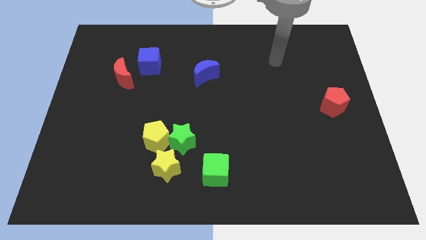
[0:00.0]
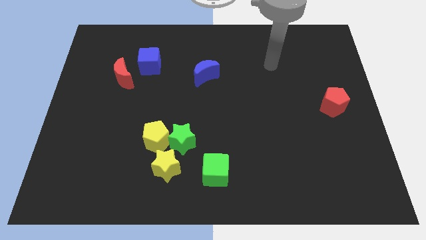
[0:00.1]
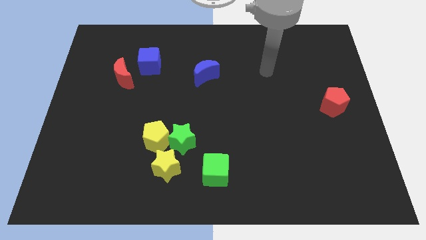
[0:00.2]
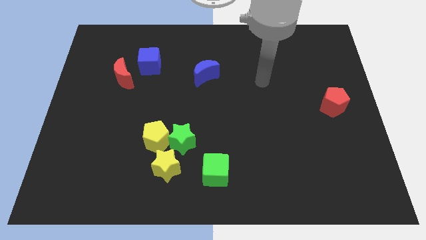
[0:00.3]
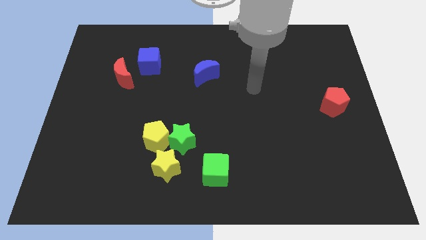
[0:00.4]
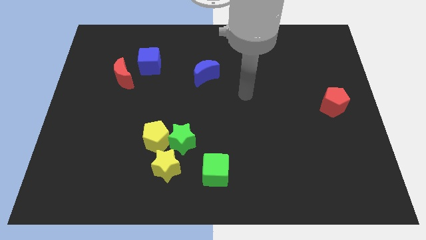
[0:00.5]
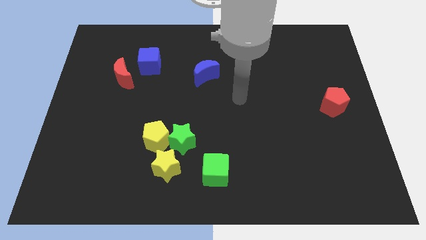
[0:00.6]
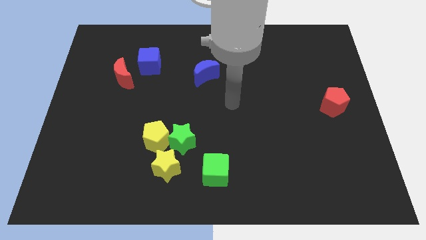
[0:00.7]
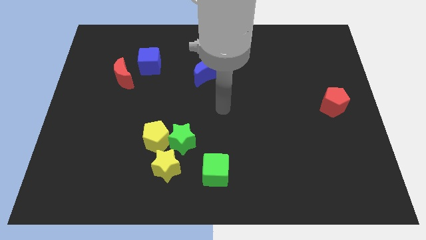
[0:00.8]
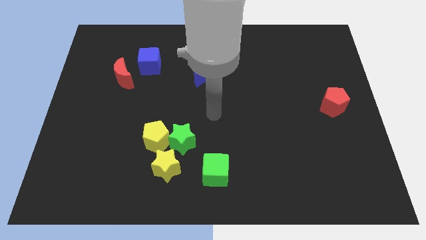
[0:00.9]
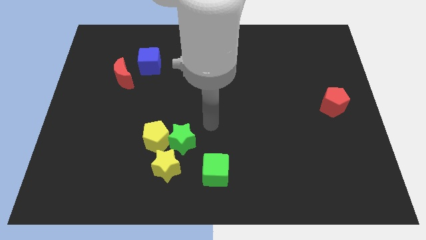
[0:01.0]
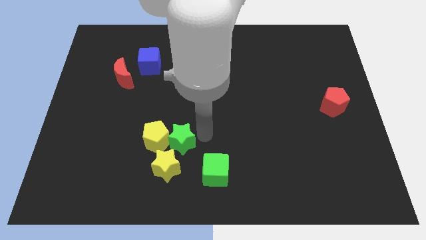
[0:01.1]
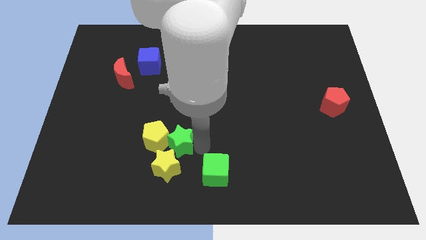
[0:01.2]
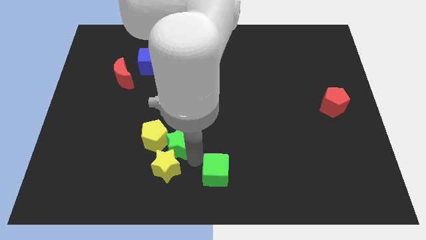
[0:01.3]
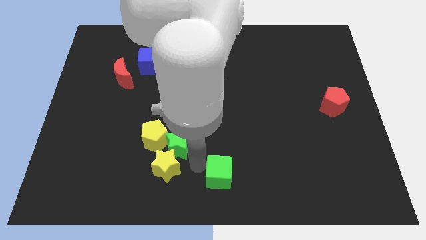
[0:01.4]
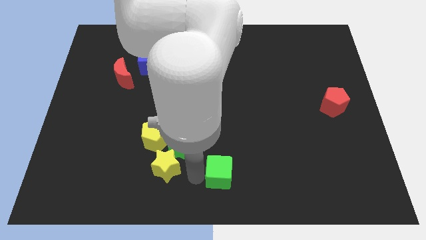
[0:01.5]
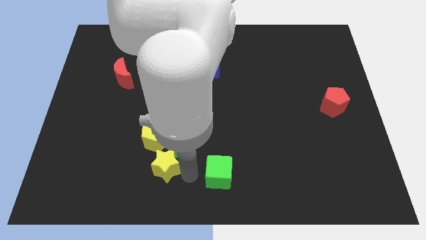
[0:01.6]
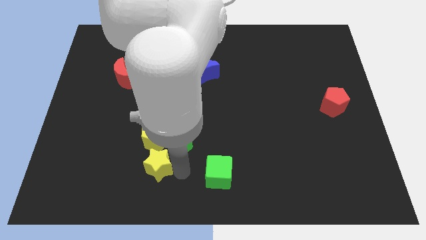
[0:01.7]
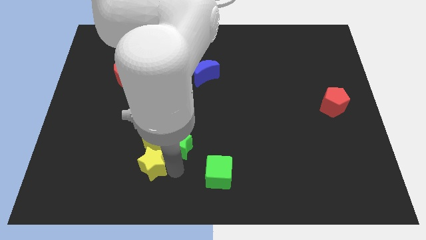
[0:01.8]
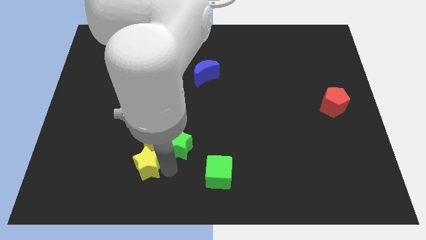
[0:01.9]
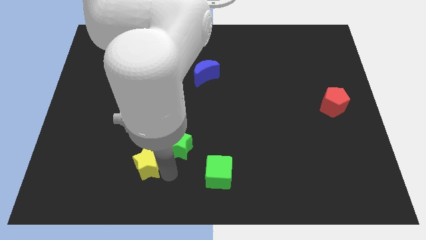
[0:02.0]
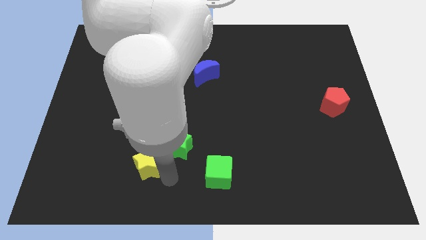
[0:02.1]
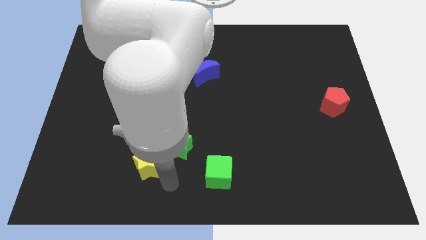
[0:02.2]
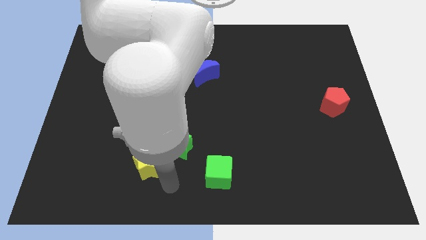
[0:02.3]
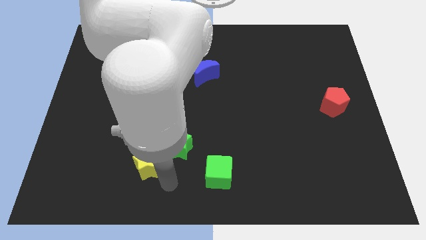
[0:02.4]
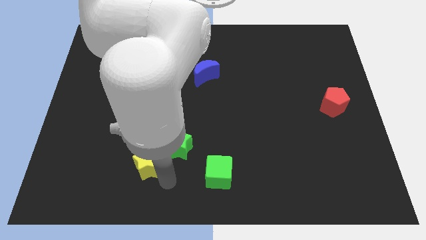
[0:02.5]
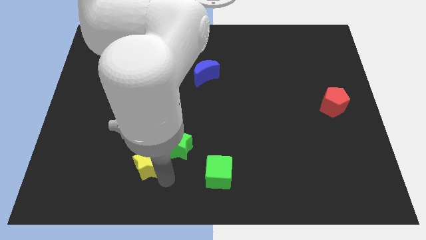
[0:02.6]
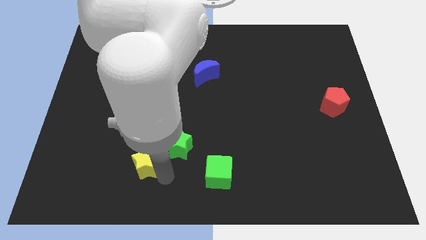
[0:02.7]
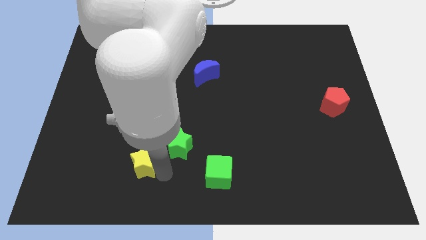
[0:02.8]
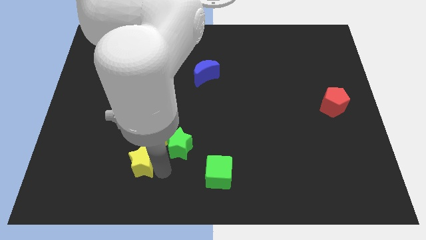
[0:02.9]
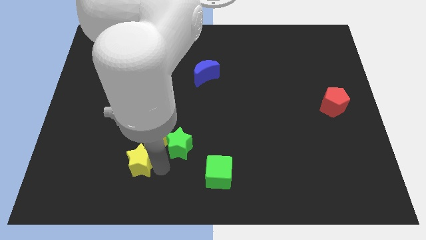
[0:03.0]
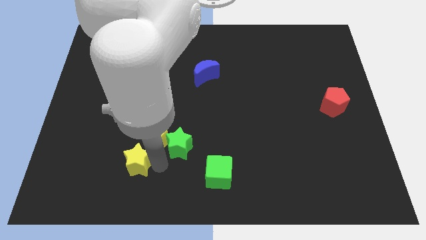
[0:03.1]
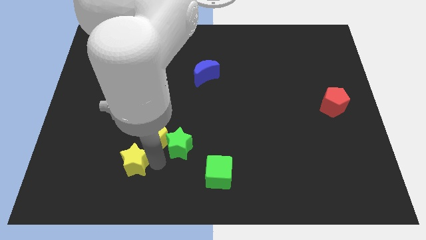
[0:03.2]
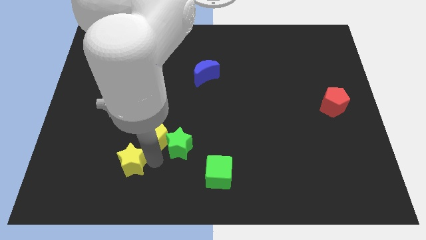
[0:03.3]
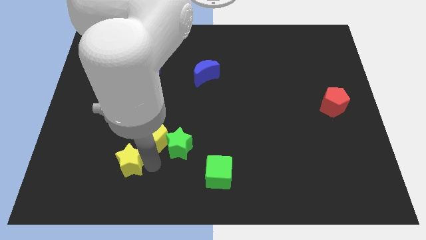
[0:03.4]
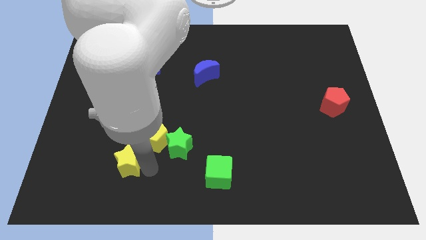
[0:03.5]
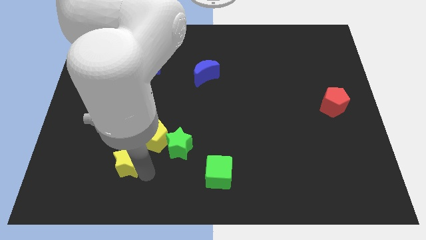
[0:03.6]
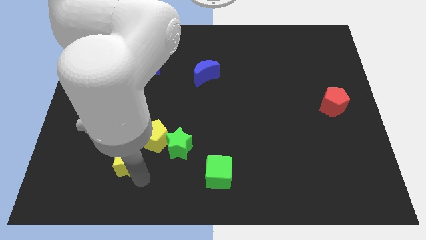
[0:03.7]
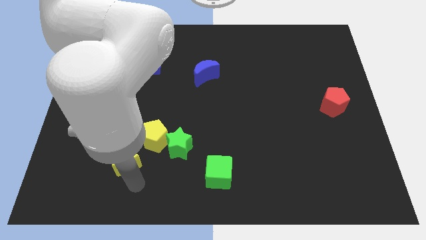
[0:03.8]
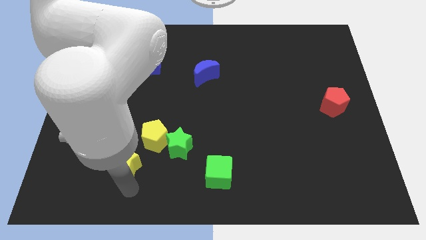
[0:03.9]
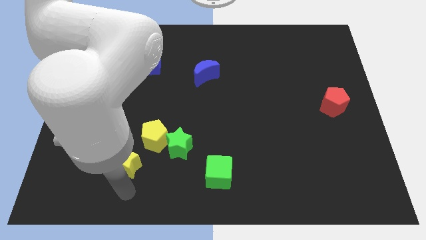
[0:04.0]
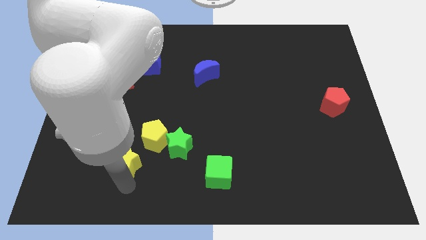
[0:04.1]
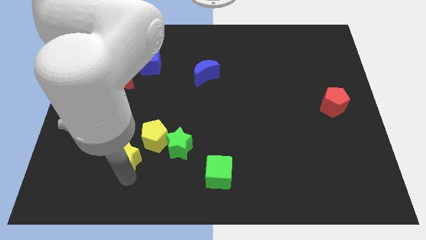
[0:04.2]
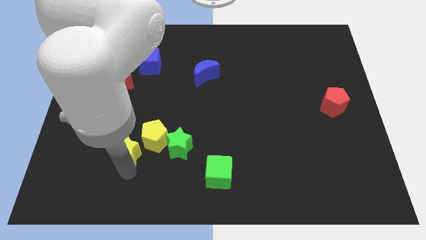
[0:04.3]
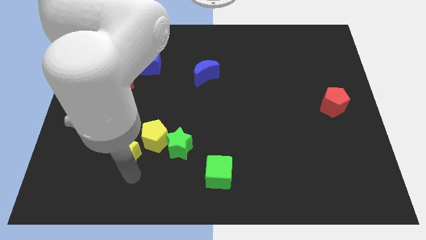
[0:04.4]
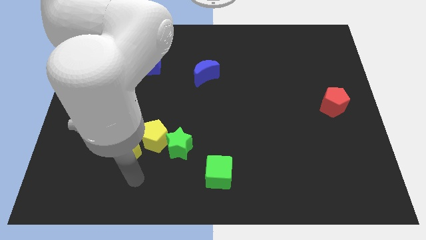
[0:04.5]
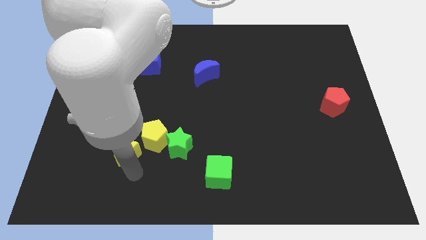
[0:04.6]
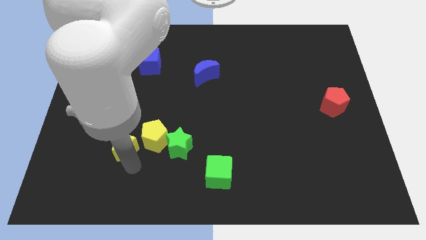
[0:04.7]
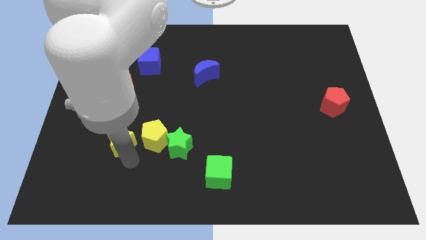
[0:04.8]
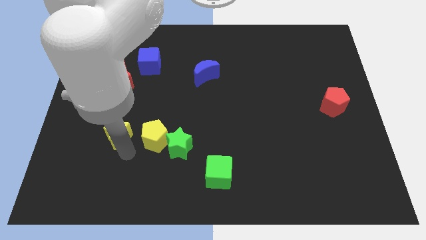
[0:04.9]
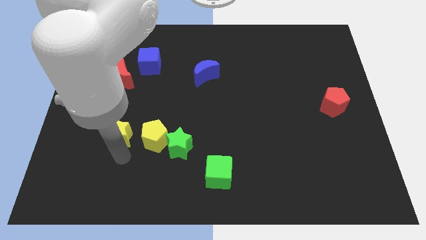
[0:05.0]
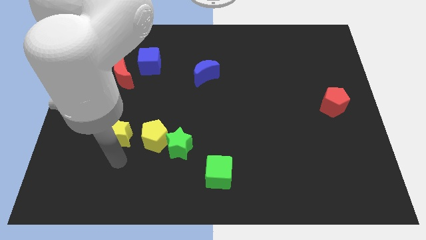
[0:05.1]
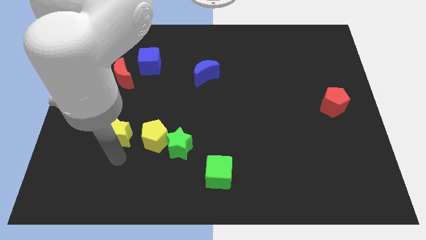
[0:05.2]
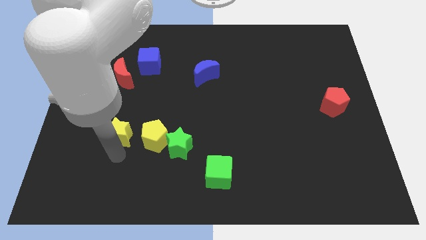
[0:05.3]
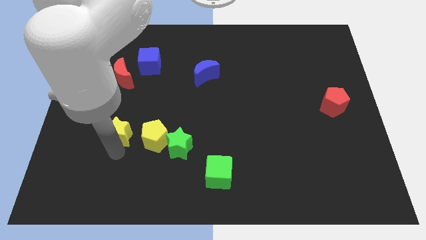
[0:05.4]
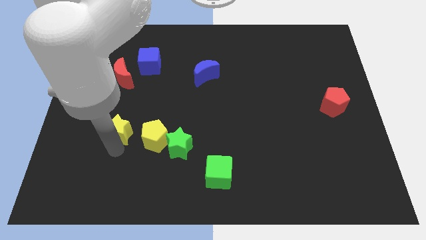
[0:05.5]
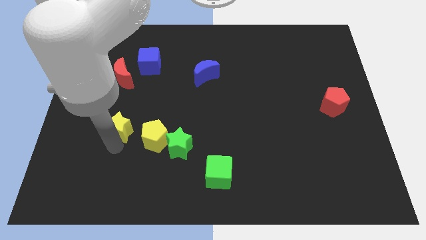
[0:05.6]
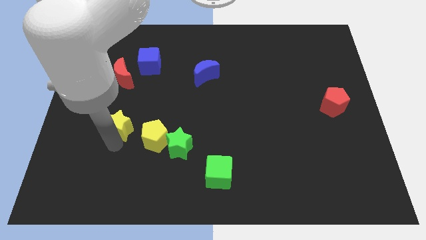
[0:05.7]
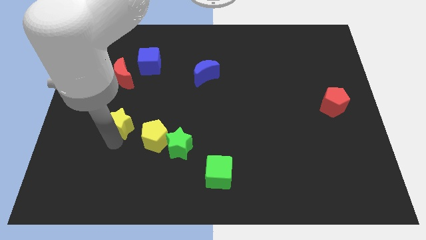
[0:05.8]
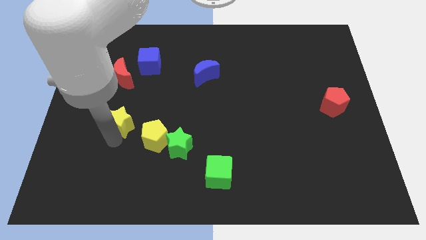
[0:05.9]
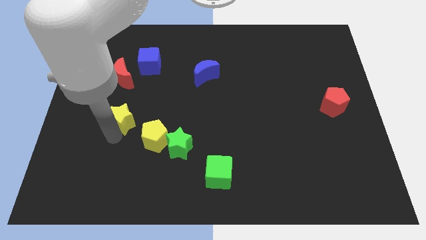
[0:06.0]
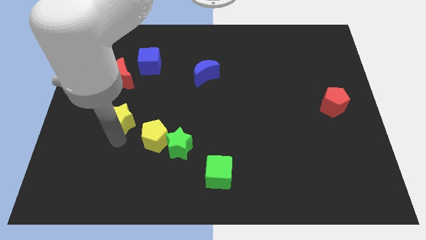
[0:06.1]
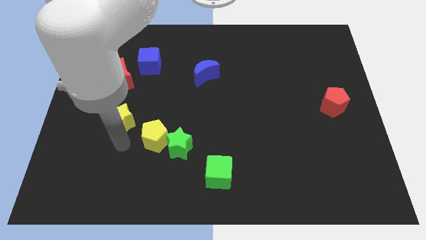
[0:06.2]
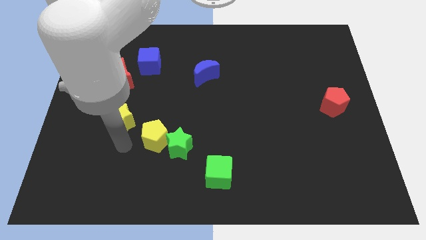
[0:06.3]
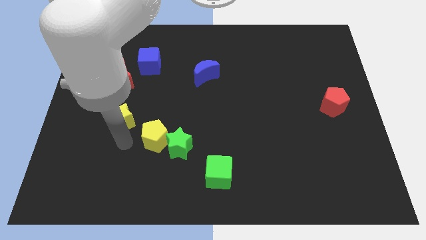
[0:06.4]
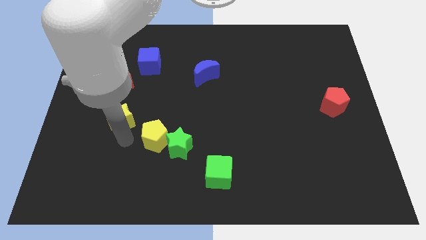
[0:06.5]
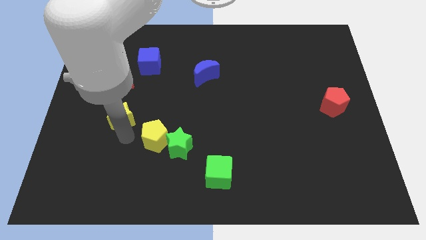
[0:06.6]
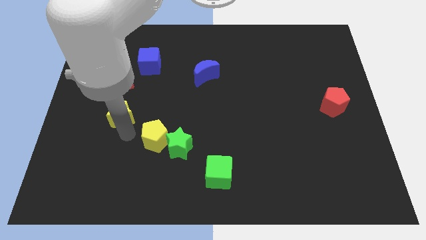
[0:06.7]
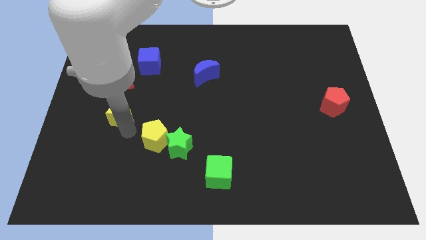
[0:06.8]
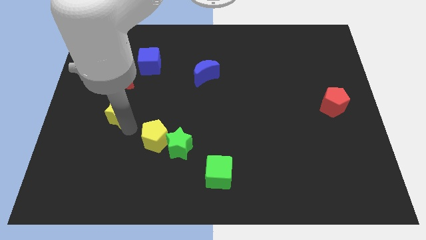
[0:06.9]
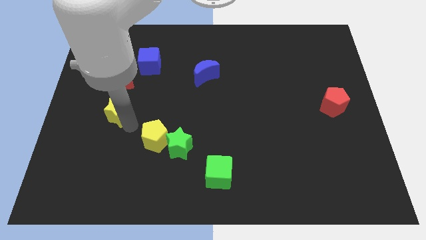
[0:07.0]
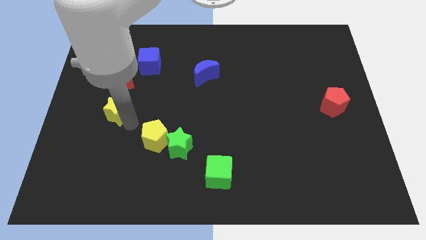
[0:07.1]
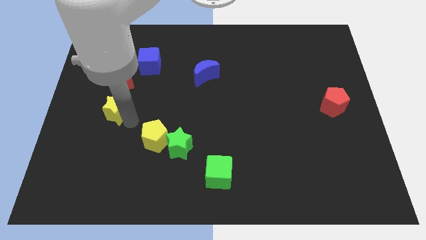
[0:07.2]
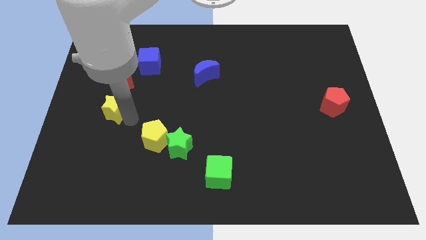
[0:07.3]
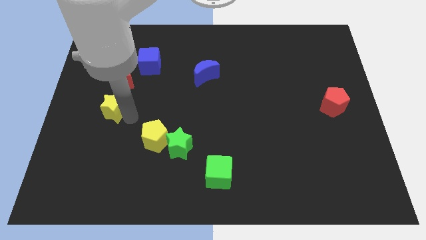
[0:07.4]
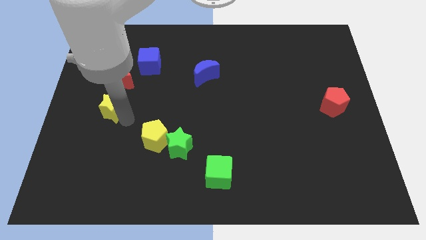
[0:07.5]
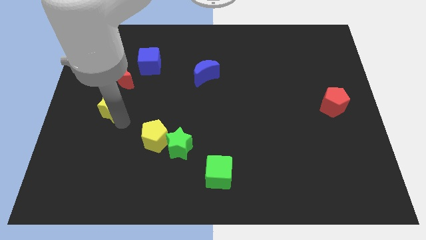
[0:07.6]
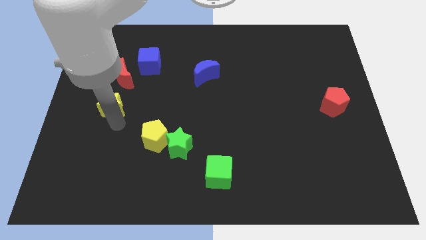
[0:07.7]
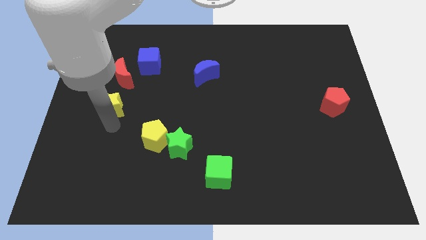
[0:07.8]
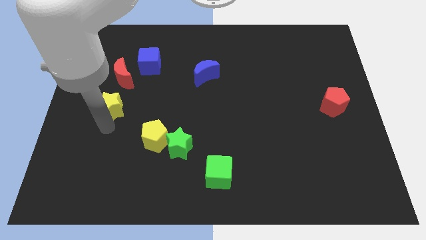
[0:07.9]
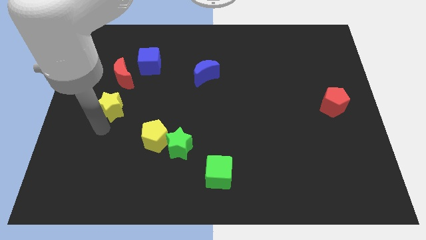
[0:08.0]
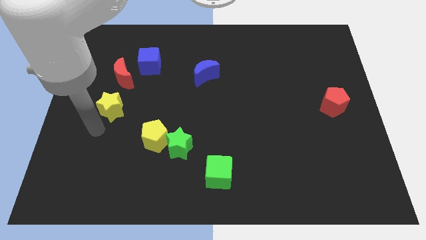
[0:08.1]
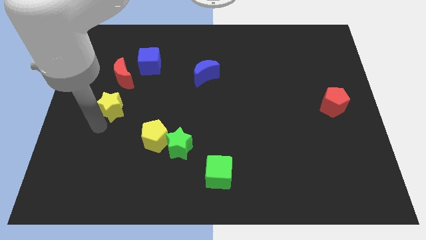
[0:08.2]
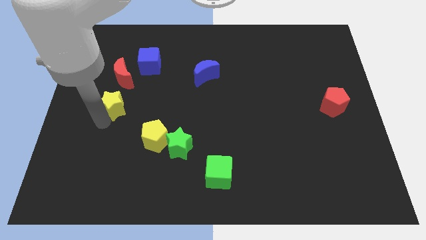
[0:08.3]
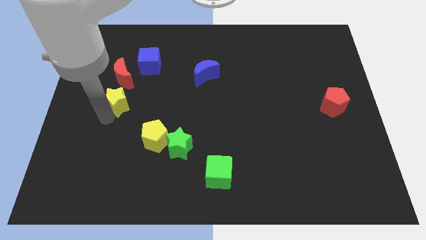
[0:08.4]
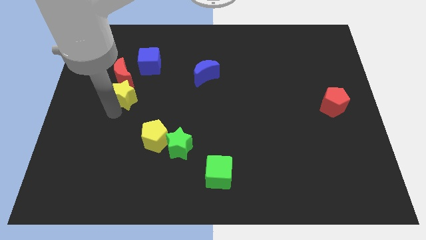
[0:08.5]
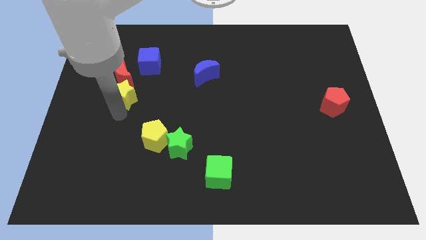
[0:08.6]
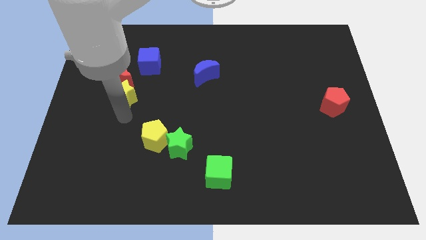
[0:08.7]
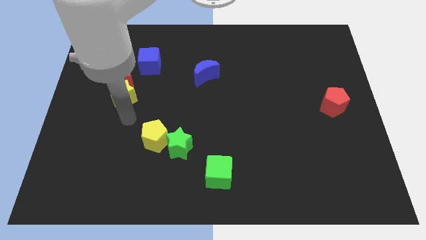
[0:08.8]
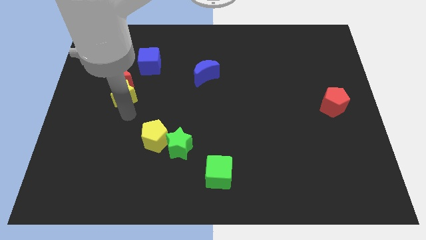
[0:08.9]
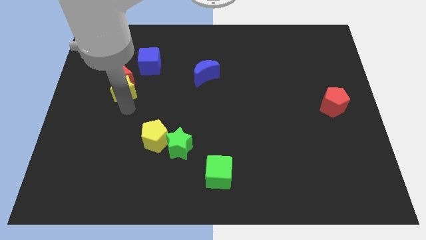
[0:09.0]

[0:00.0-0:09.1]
push the yellow star towards the red moon
